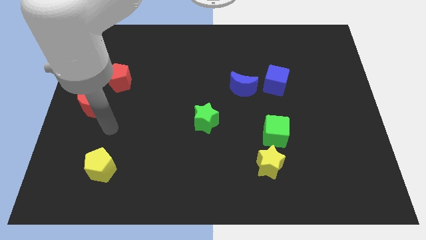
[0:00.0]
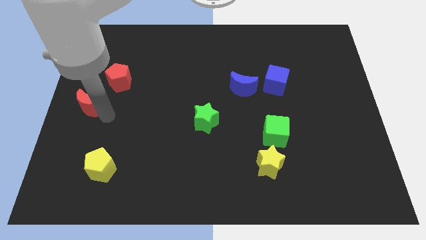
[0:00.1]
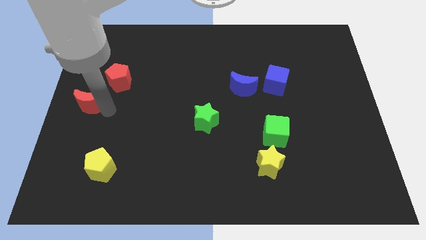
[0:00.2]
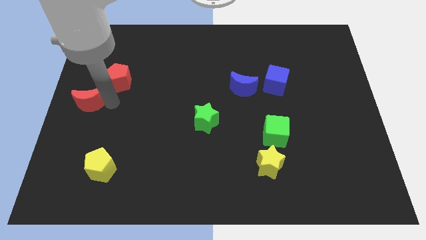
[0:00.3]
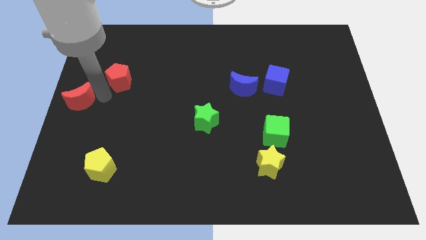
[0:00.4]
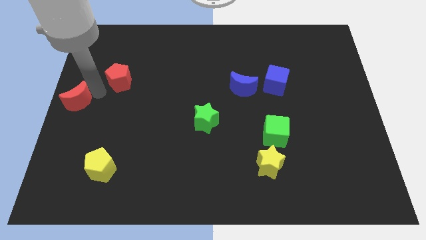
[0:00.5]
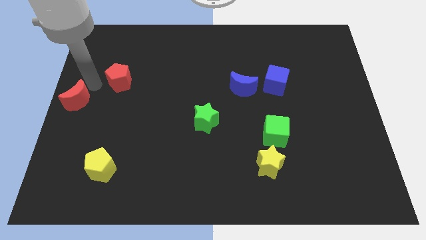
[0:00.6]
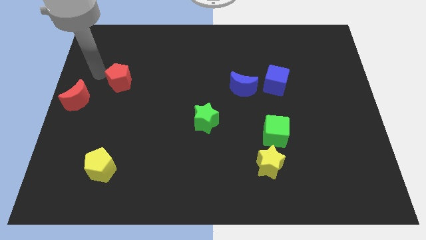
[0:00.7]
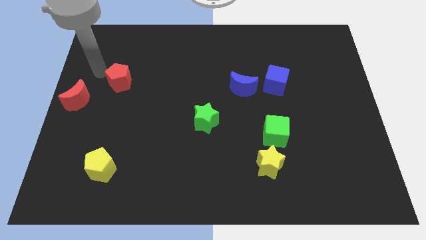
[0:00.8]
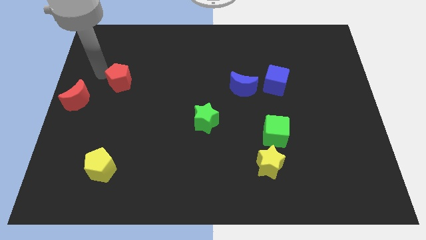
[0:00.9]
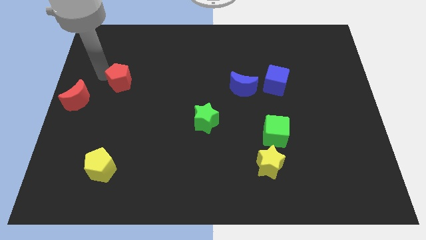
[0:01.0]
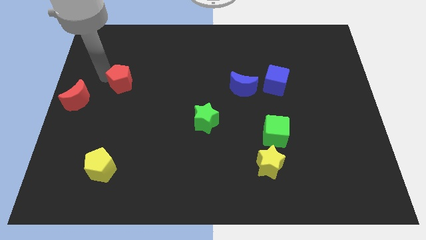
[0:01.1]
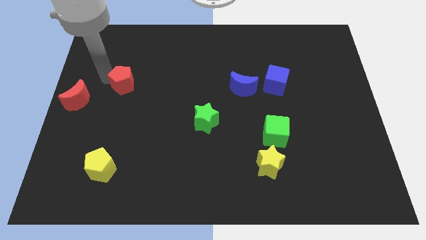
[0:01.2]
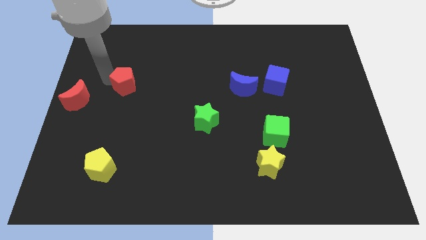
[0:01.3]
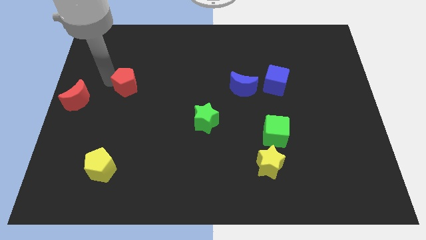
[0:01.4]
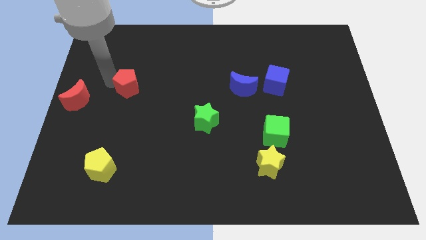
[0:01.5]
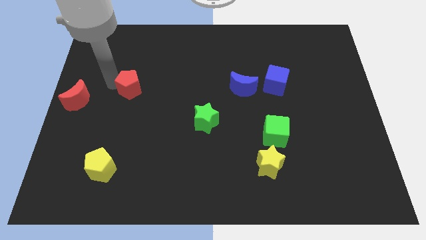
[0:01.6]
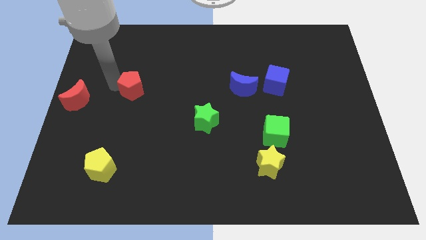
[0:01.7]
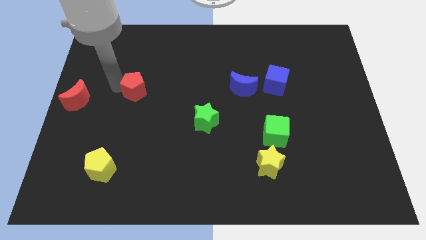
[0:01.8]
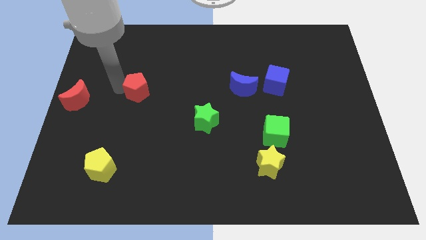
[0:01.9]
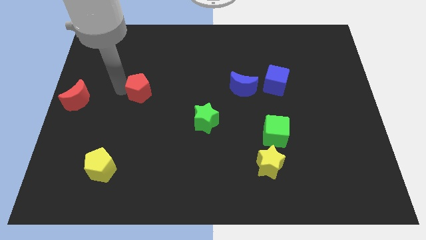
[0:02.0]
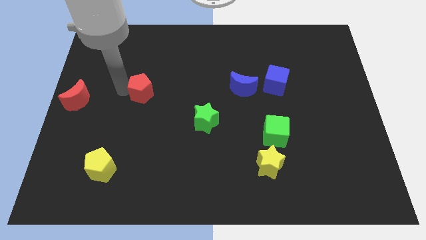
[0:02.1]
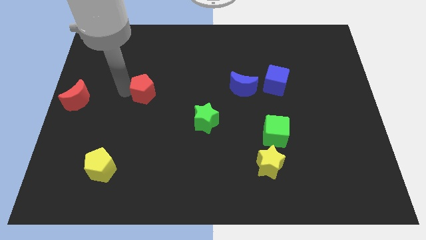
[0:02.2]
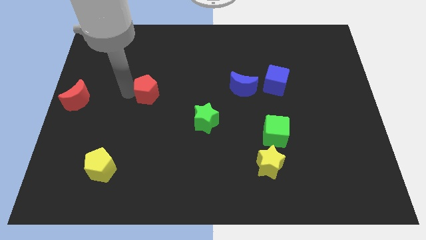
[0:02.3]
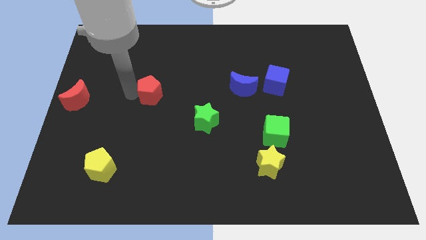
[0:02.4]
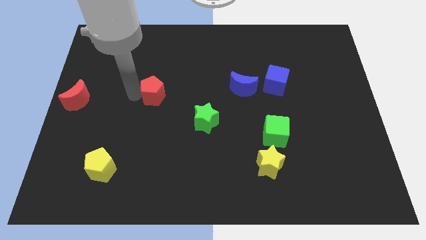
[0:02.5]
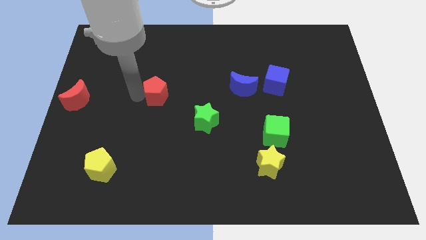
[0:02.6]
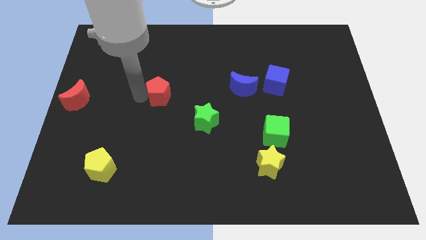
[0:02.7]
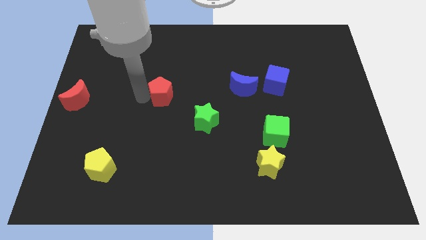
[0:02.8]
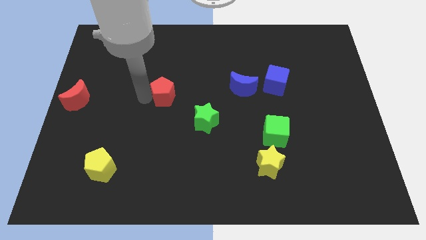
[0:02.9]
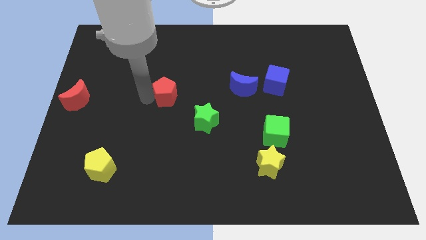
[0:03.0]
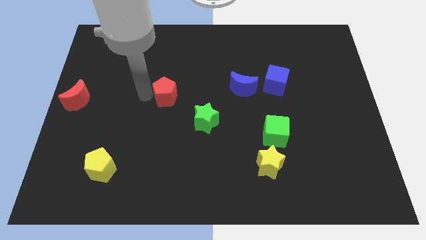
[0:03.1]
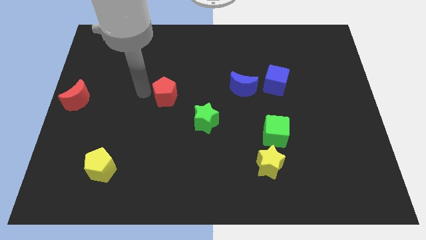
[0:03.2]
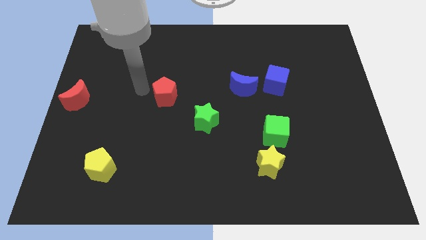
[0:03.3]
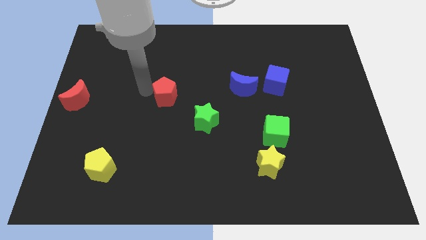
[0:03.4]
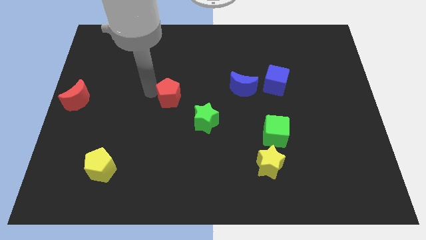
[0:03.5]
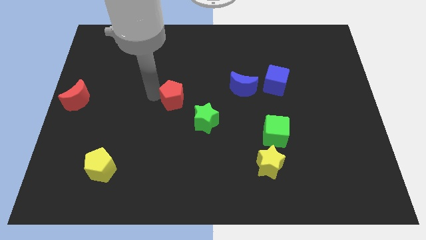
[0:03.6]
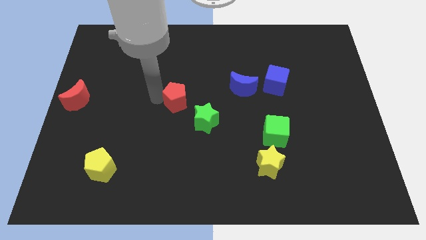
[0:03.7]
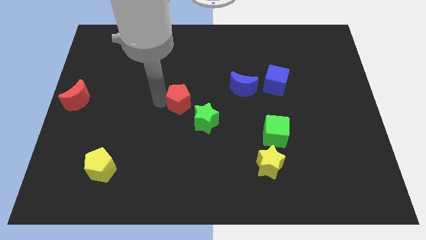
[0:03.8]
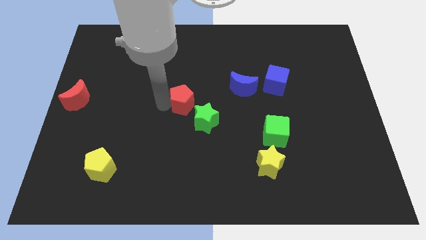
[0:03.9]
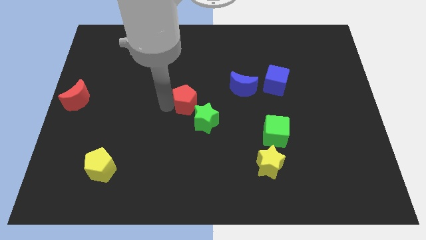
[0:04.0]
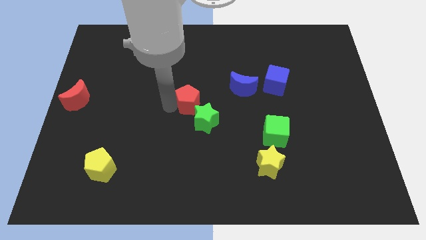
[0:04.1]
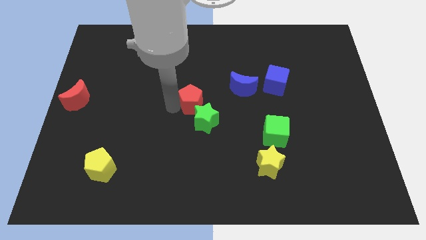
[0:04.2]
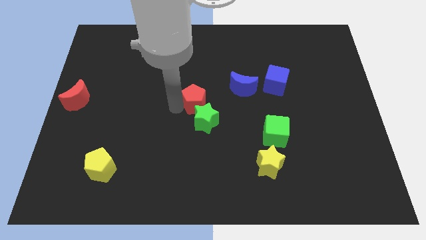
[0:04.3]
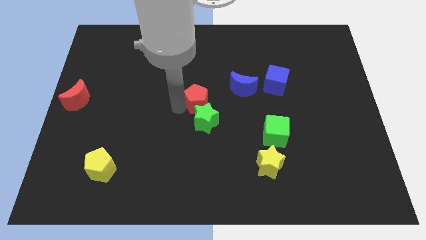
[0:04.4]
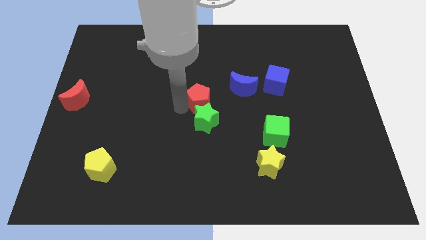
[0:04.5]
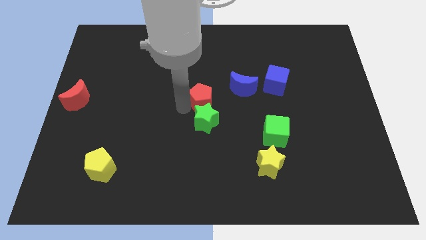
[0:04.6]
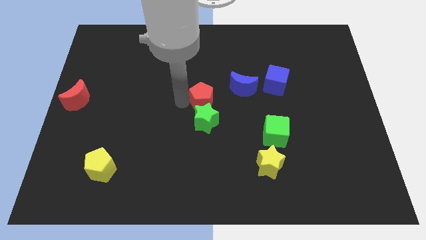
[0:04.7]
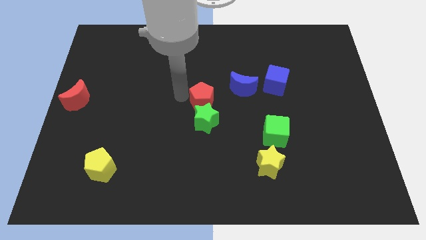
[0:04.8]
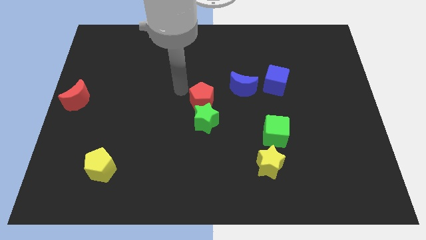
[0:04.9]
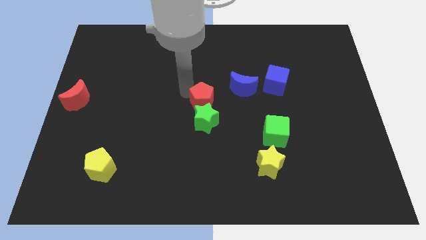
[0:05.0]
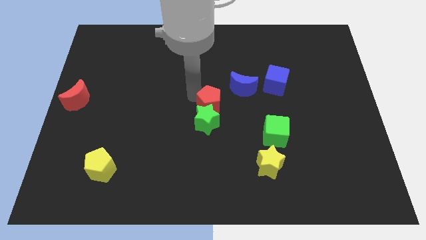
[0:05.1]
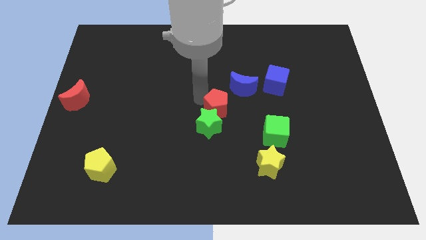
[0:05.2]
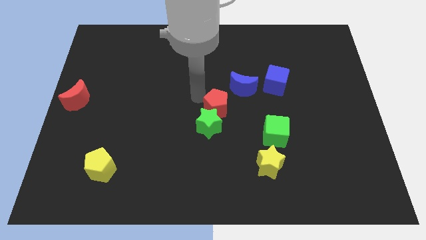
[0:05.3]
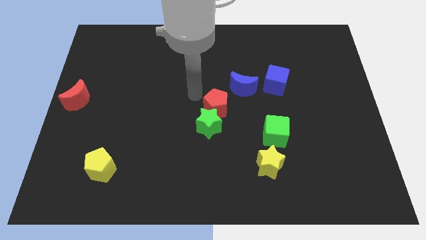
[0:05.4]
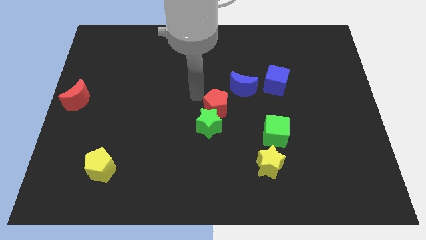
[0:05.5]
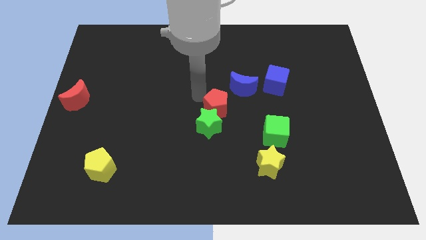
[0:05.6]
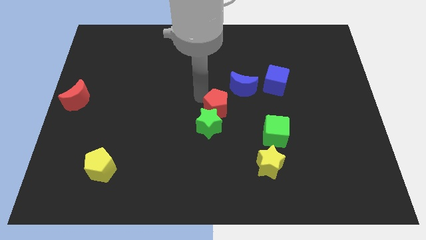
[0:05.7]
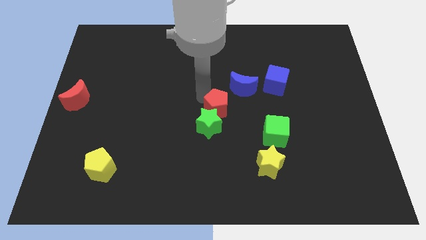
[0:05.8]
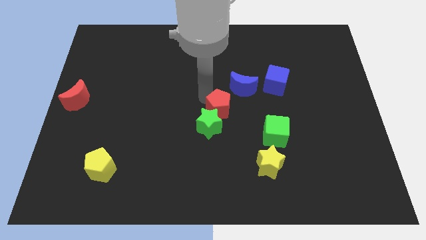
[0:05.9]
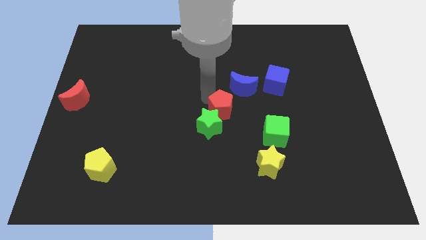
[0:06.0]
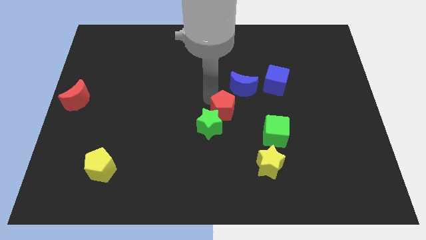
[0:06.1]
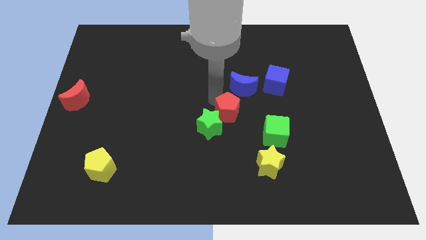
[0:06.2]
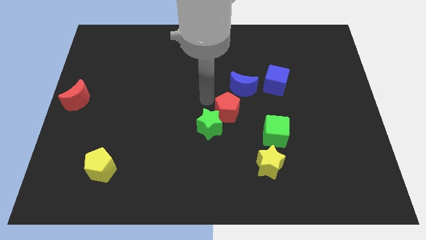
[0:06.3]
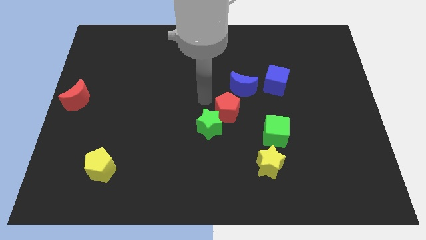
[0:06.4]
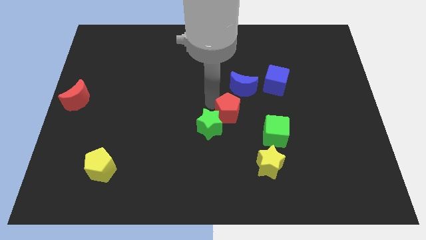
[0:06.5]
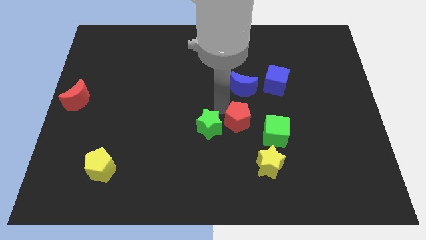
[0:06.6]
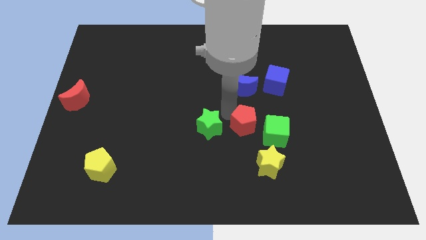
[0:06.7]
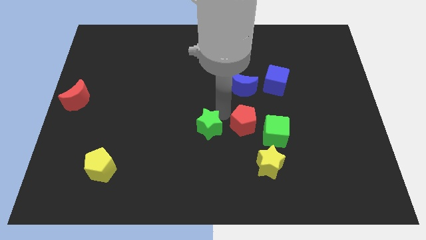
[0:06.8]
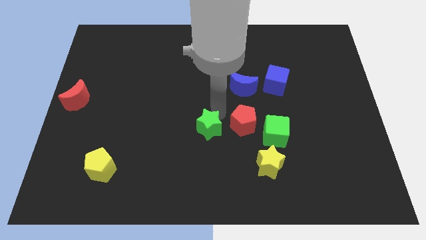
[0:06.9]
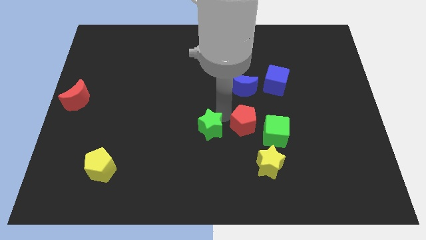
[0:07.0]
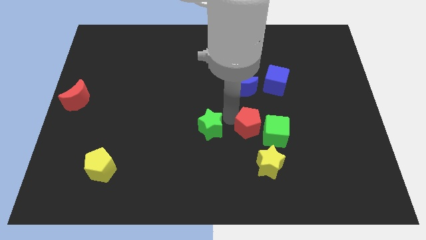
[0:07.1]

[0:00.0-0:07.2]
move the red pentagon towards the green cube
